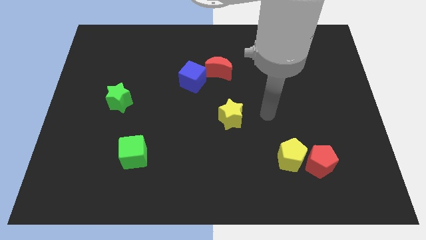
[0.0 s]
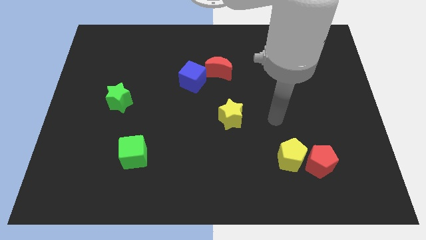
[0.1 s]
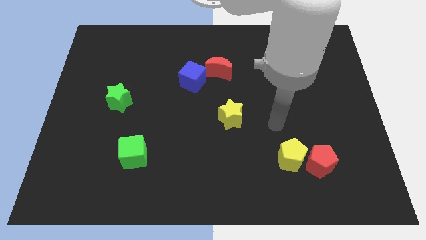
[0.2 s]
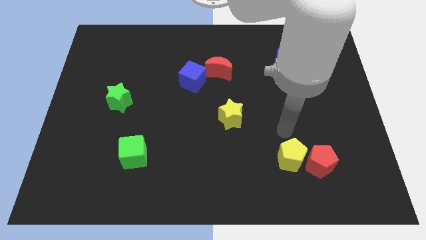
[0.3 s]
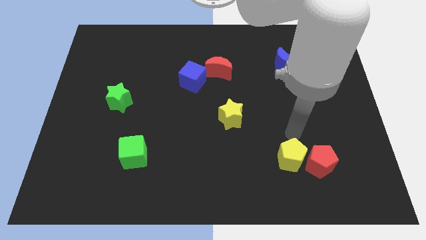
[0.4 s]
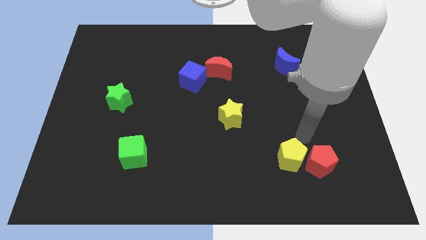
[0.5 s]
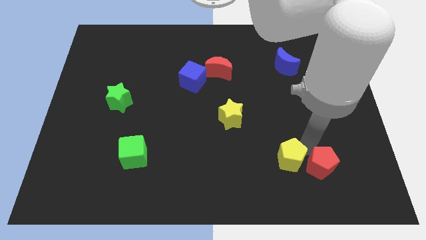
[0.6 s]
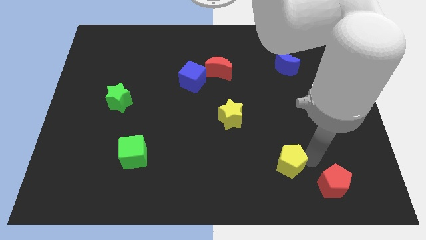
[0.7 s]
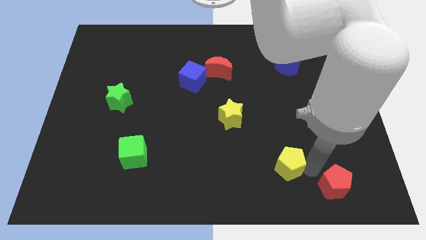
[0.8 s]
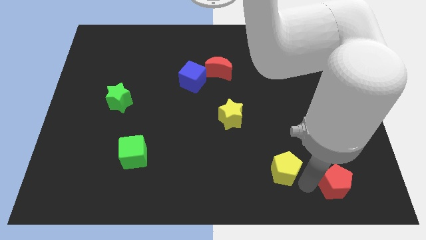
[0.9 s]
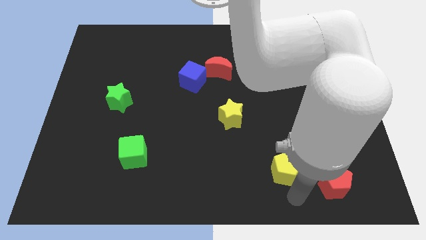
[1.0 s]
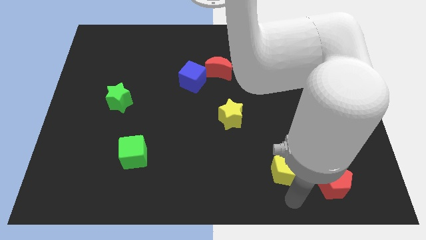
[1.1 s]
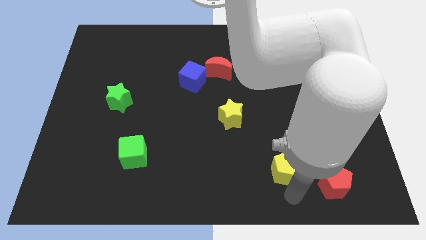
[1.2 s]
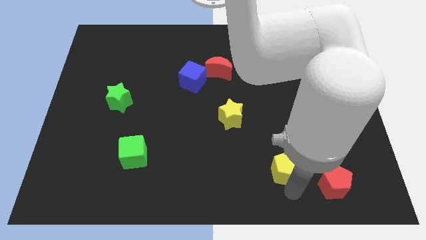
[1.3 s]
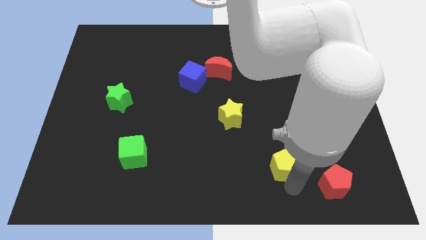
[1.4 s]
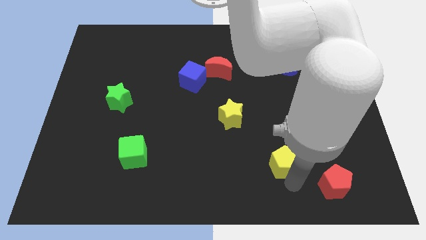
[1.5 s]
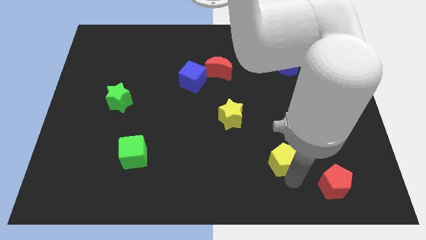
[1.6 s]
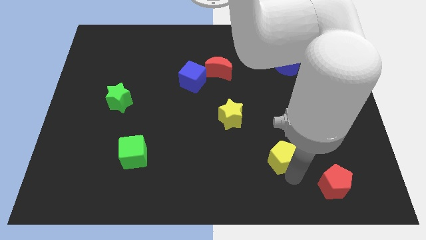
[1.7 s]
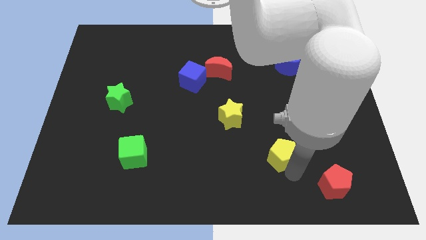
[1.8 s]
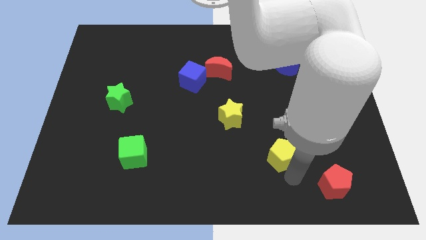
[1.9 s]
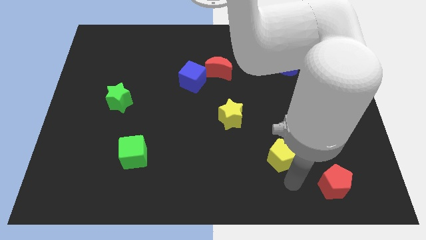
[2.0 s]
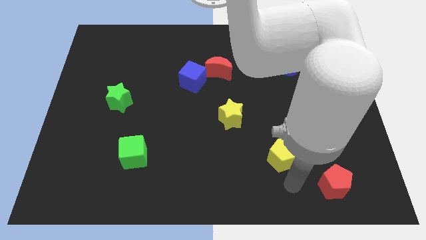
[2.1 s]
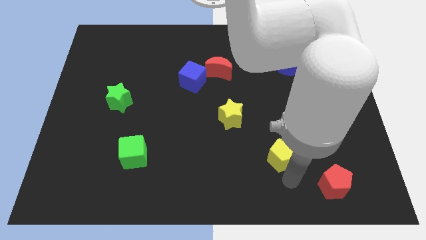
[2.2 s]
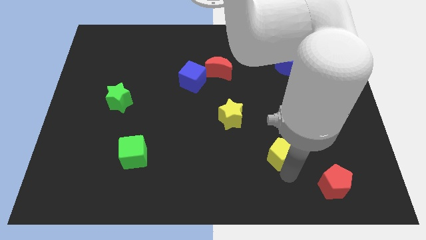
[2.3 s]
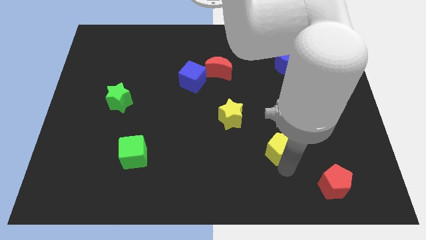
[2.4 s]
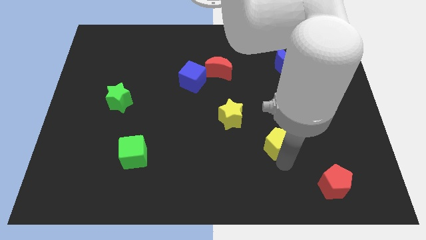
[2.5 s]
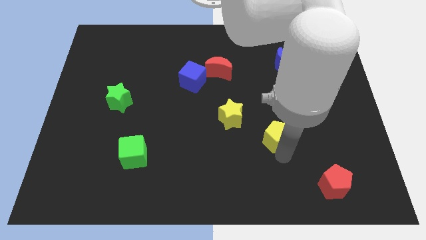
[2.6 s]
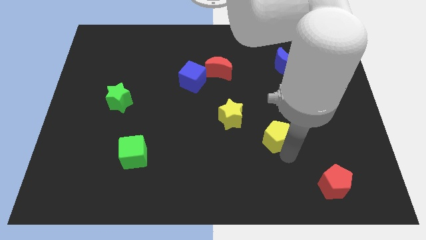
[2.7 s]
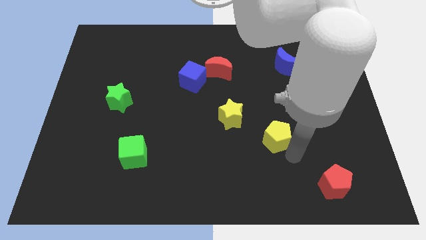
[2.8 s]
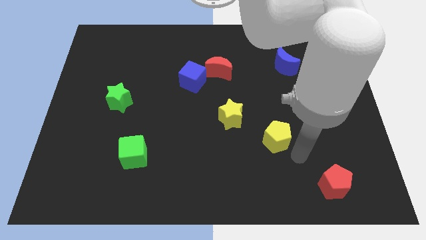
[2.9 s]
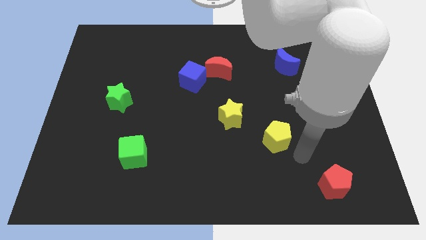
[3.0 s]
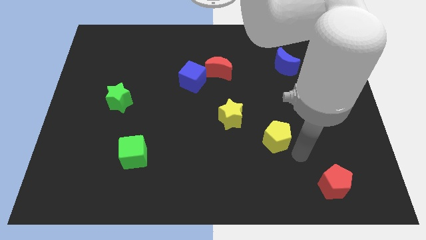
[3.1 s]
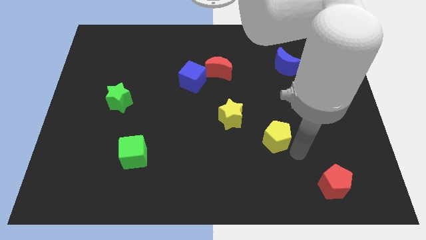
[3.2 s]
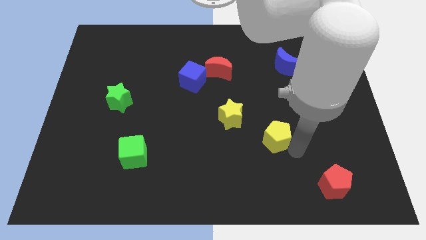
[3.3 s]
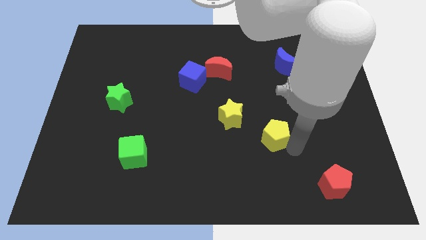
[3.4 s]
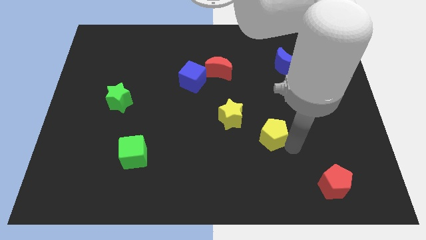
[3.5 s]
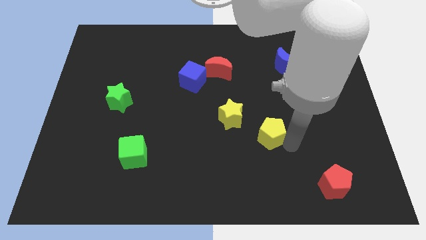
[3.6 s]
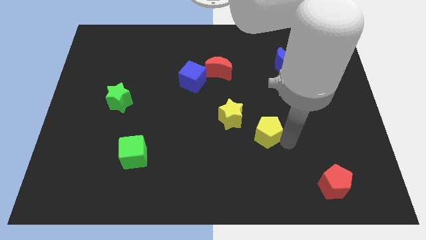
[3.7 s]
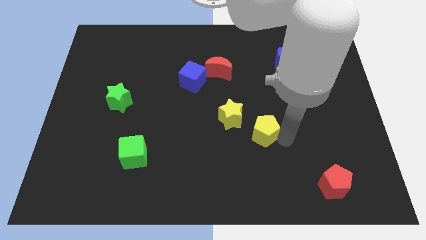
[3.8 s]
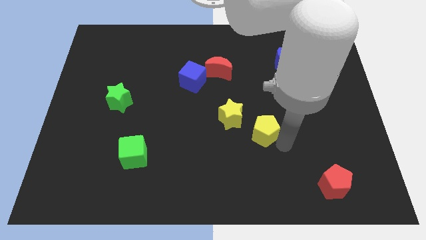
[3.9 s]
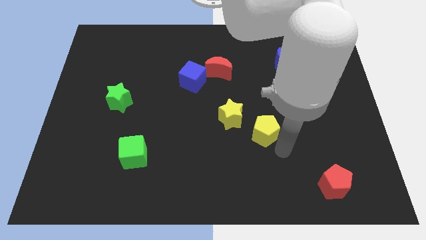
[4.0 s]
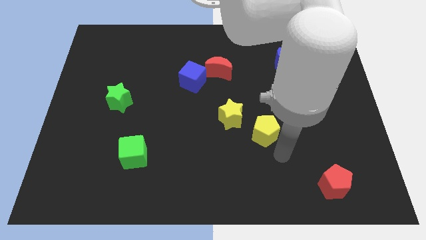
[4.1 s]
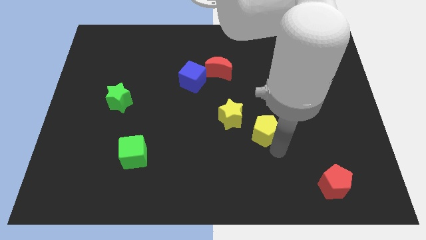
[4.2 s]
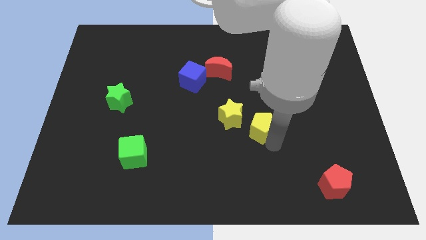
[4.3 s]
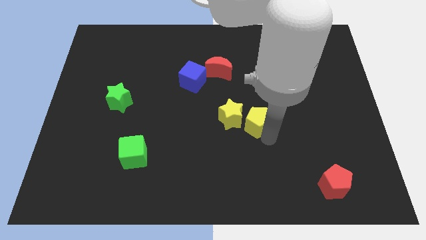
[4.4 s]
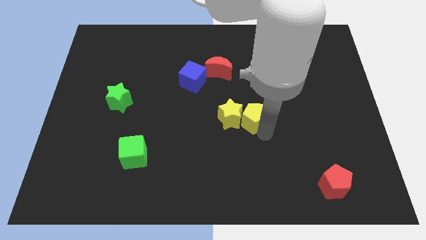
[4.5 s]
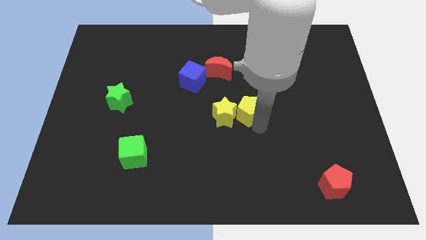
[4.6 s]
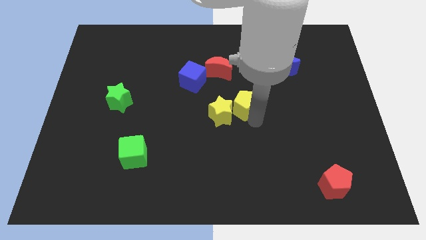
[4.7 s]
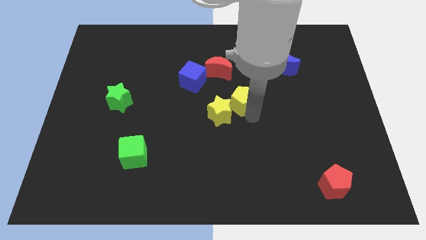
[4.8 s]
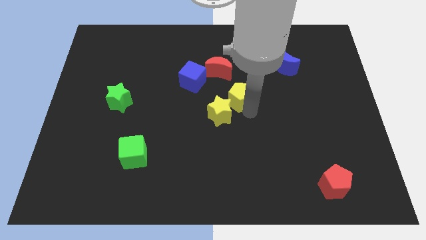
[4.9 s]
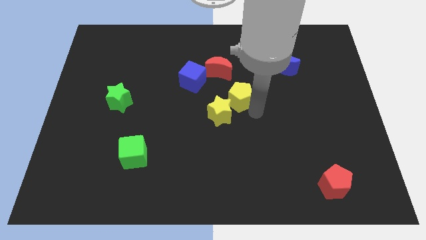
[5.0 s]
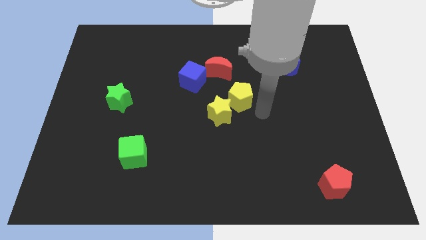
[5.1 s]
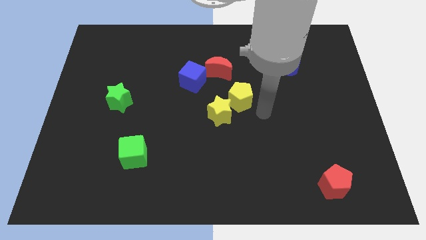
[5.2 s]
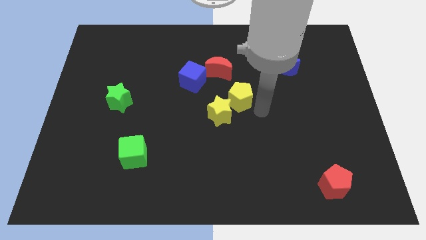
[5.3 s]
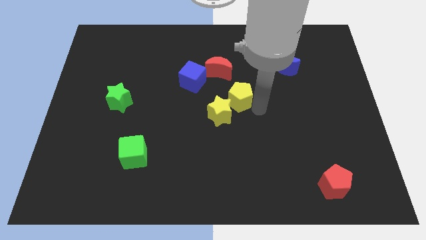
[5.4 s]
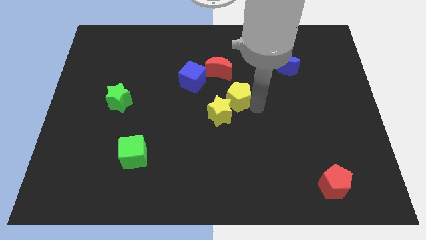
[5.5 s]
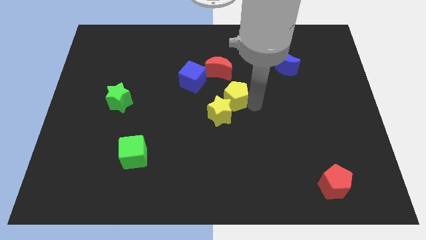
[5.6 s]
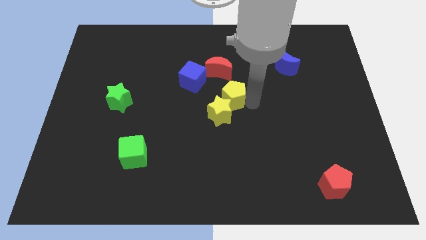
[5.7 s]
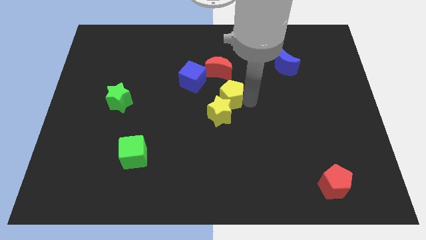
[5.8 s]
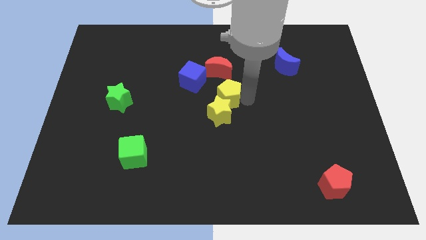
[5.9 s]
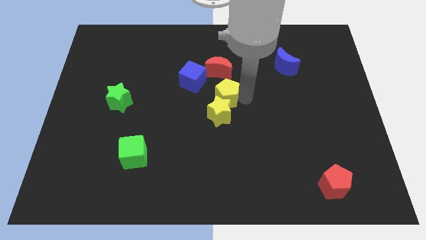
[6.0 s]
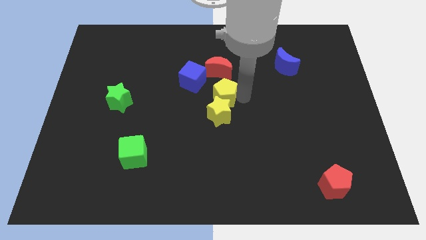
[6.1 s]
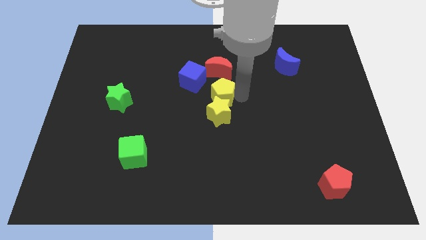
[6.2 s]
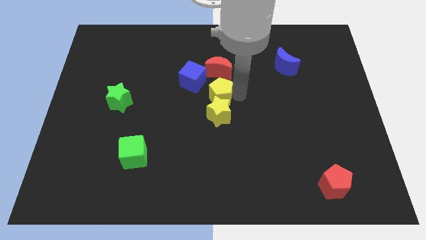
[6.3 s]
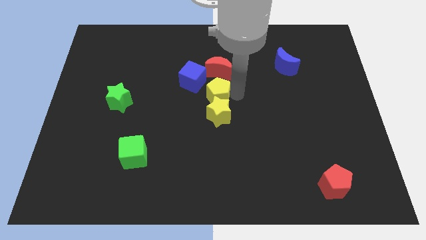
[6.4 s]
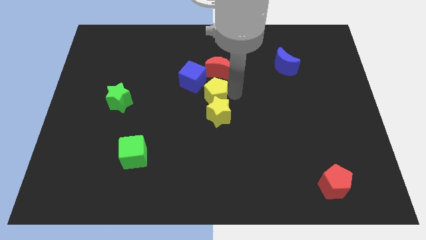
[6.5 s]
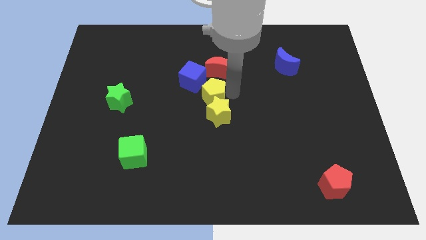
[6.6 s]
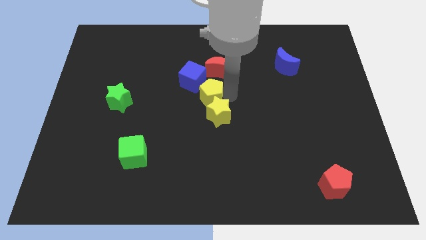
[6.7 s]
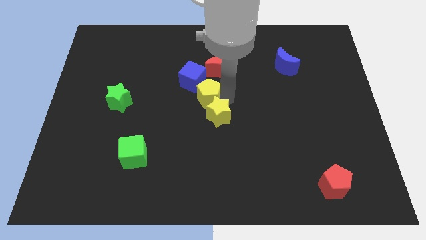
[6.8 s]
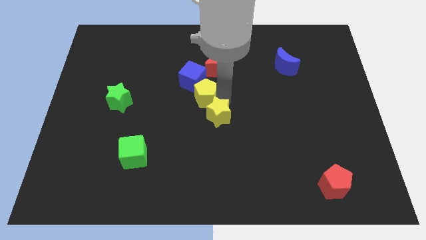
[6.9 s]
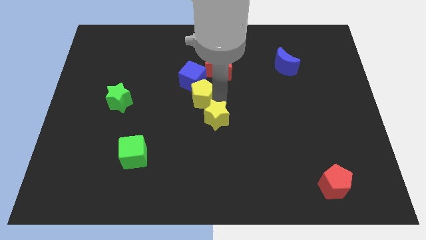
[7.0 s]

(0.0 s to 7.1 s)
slide the yellow pentagon towards the blue cube
